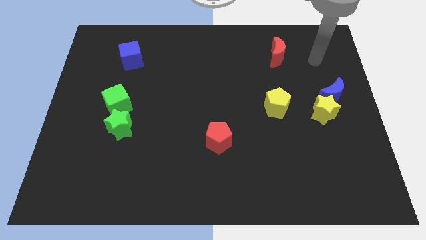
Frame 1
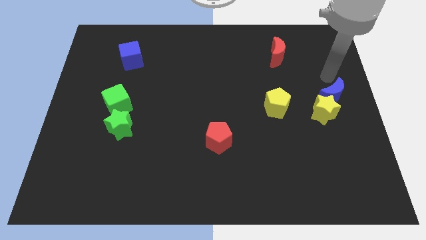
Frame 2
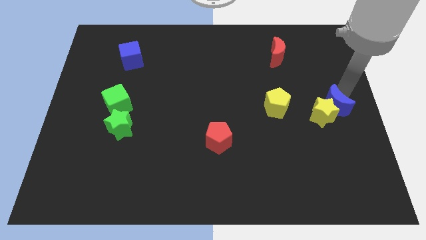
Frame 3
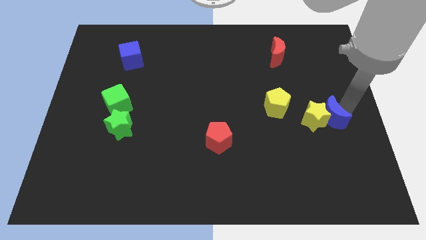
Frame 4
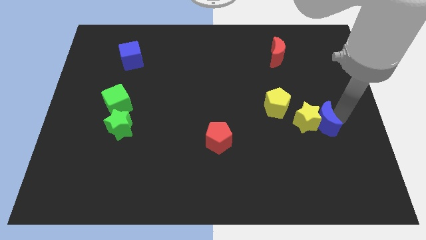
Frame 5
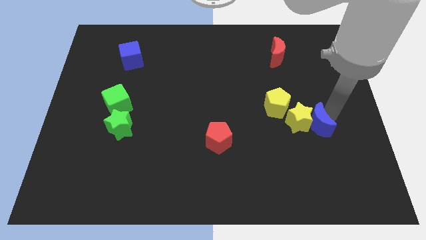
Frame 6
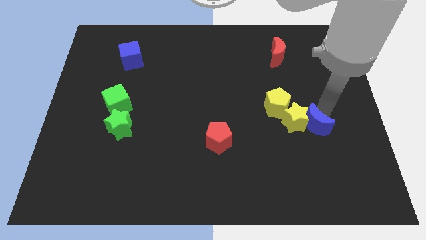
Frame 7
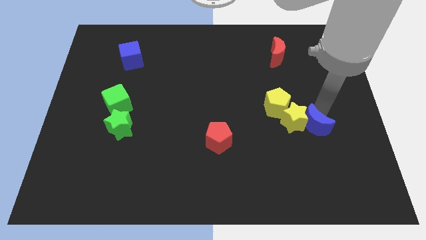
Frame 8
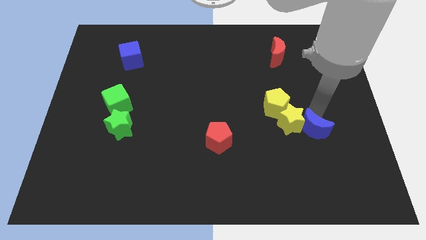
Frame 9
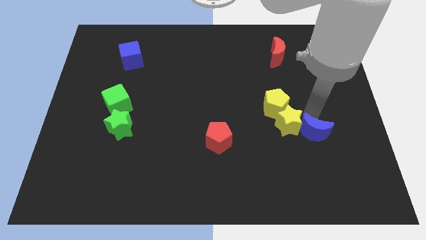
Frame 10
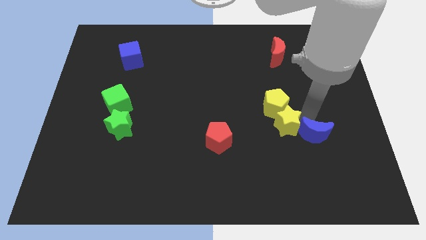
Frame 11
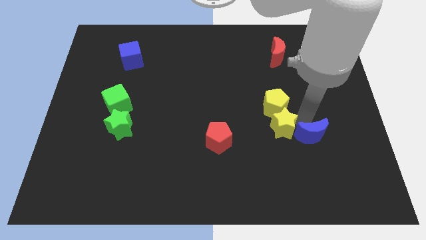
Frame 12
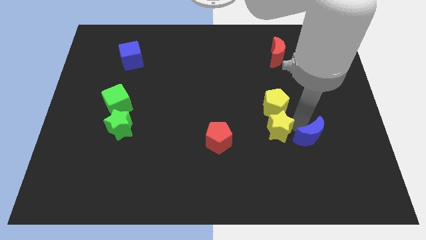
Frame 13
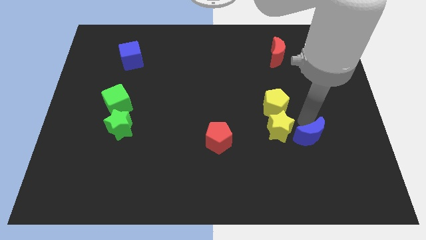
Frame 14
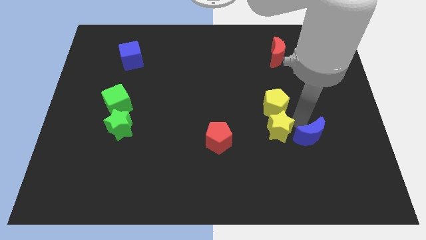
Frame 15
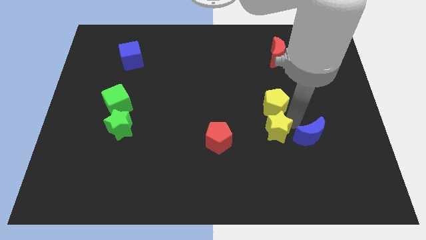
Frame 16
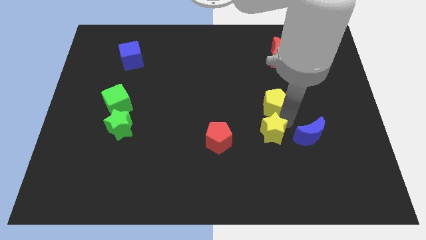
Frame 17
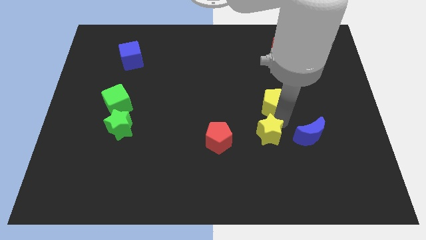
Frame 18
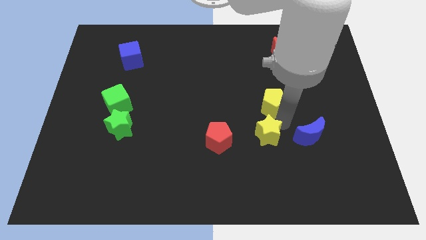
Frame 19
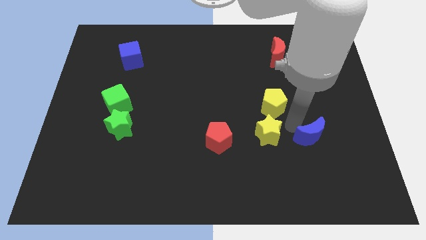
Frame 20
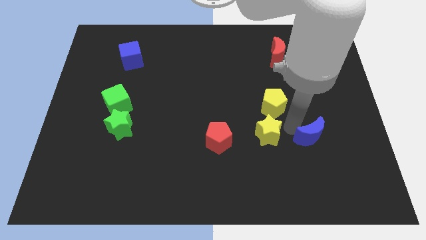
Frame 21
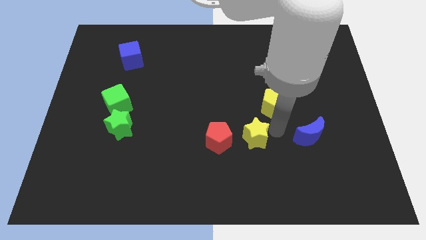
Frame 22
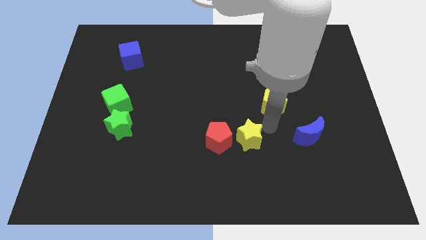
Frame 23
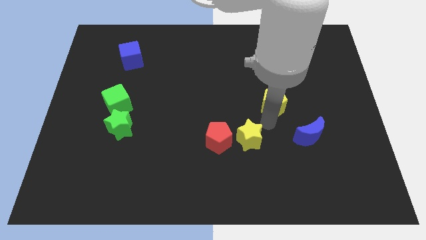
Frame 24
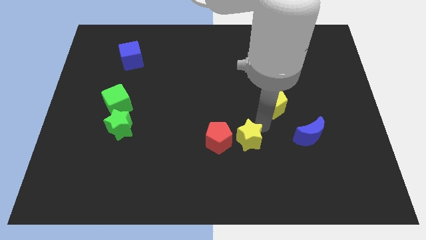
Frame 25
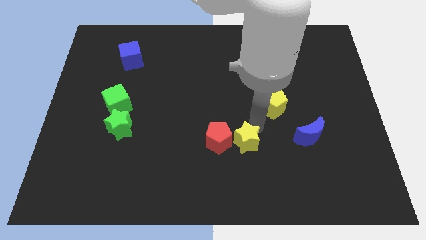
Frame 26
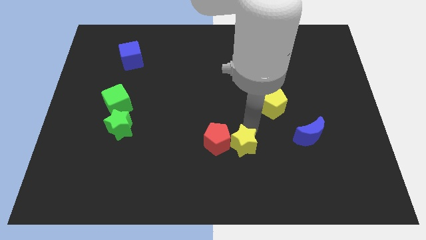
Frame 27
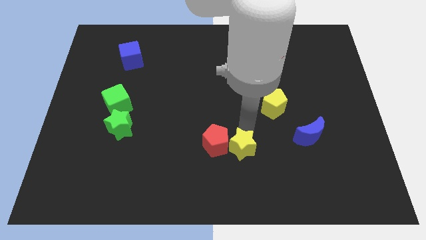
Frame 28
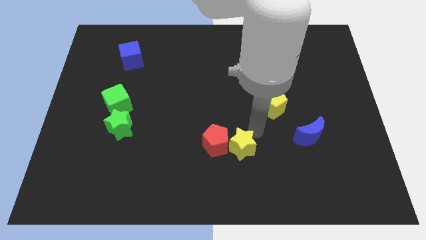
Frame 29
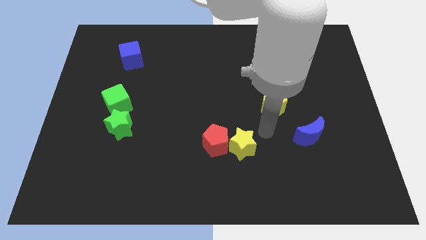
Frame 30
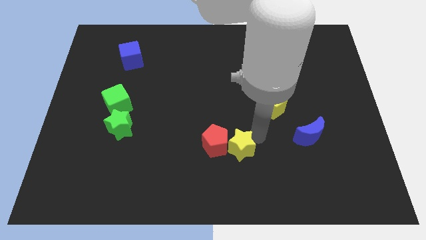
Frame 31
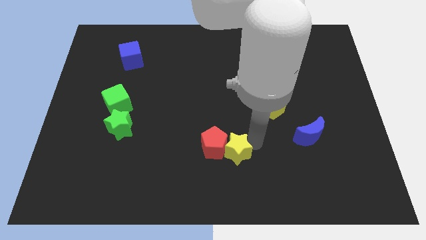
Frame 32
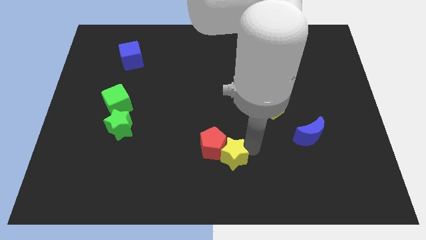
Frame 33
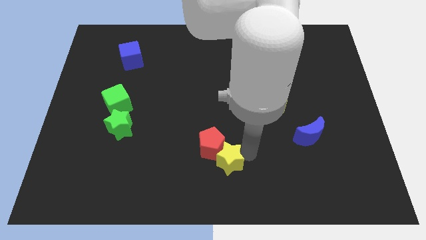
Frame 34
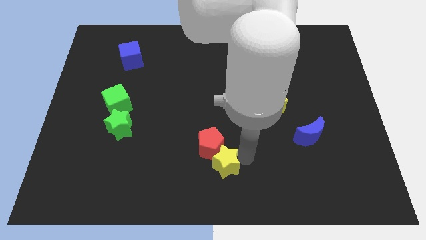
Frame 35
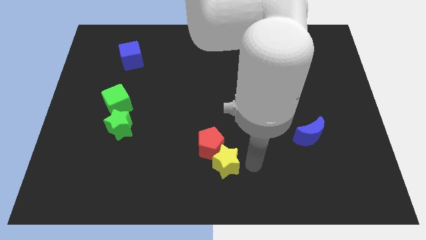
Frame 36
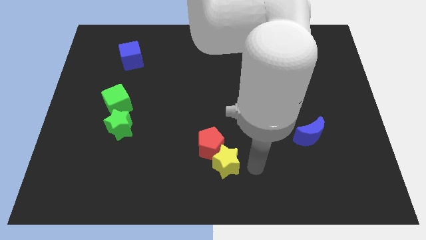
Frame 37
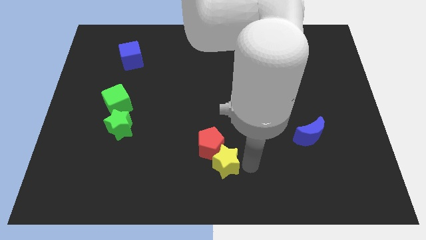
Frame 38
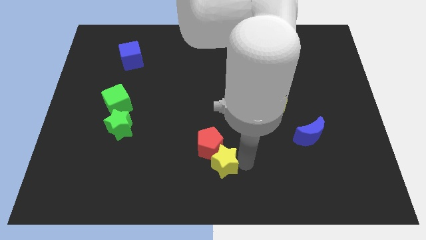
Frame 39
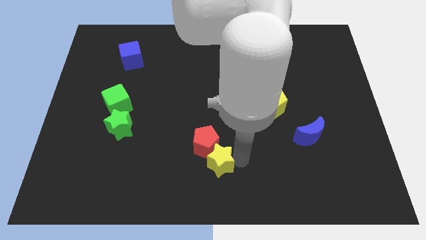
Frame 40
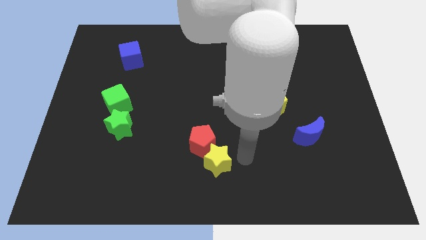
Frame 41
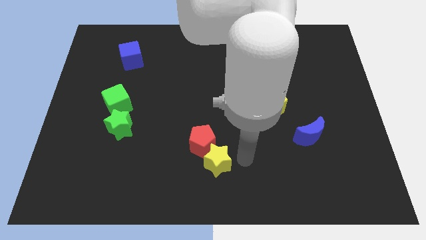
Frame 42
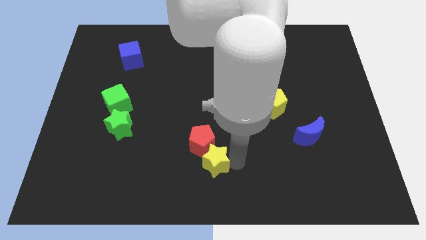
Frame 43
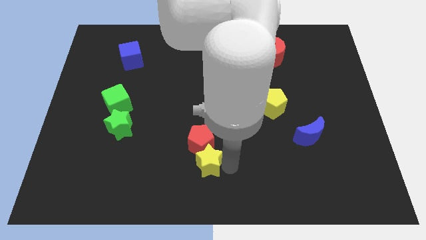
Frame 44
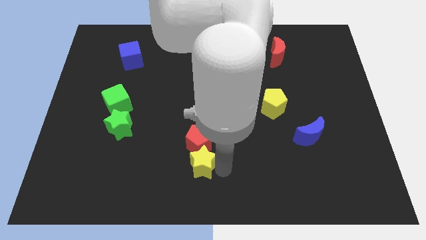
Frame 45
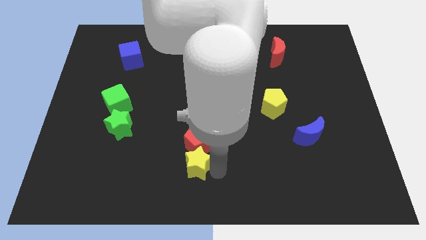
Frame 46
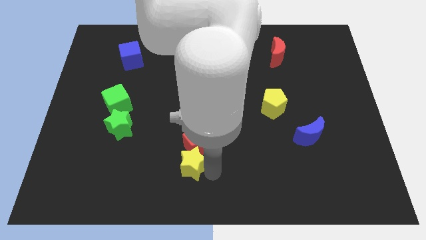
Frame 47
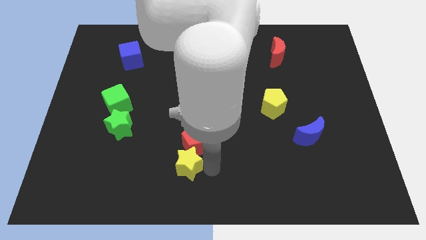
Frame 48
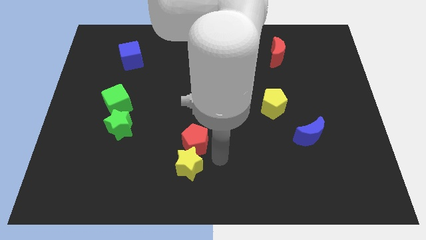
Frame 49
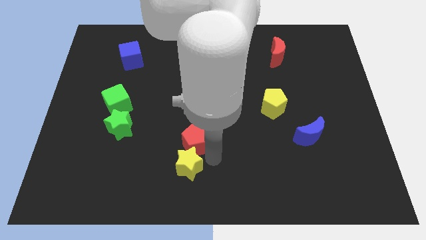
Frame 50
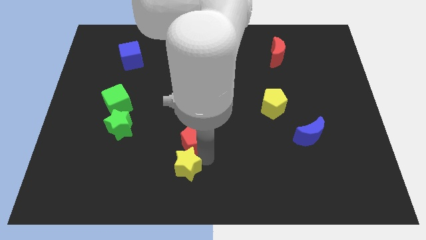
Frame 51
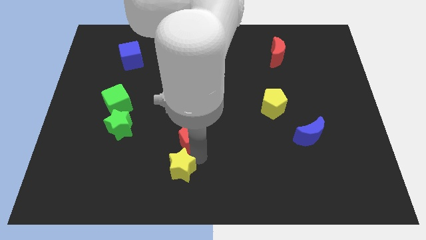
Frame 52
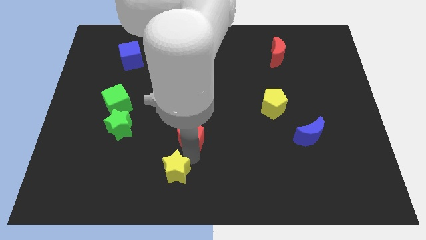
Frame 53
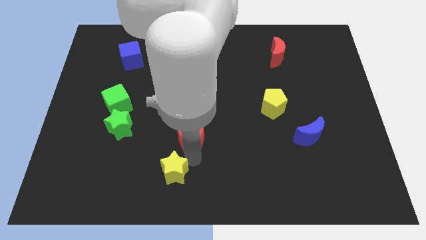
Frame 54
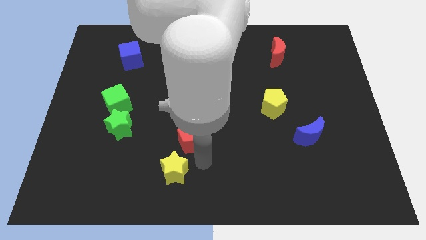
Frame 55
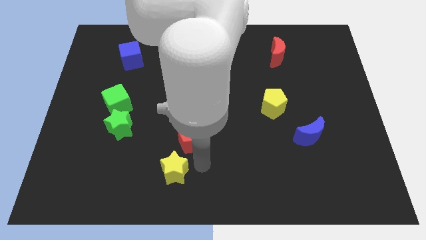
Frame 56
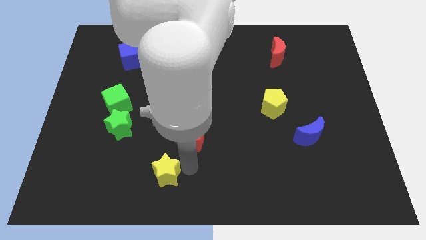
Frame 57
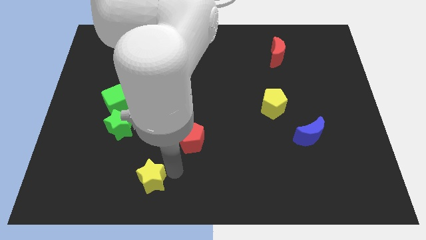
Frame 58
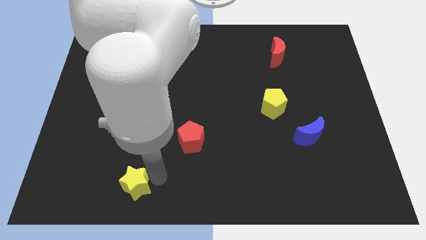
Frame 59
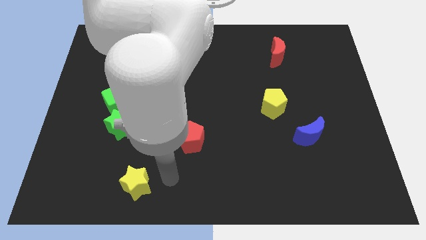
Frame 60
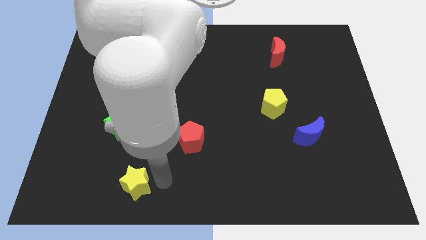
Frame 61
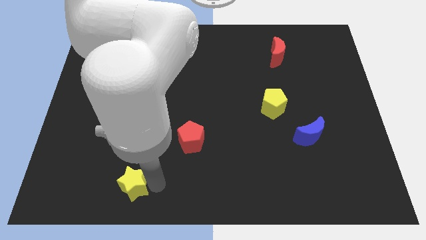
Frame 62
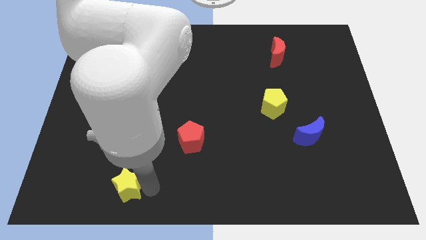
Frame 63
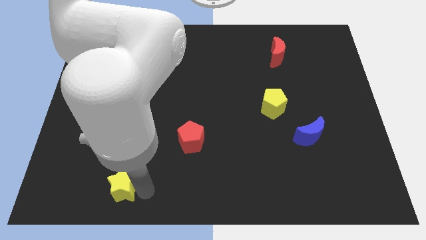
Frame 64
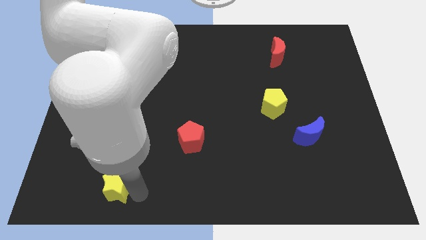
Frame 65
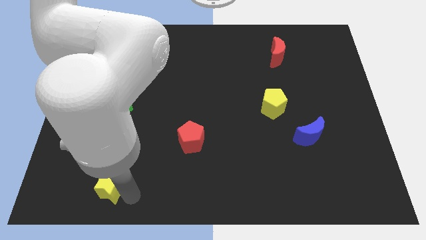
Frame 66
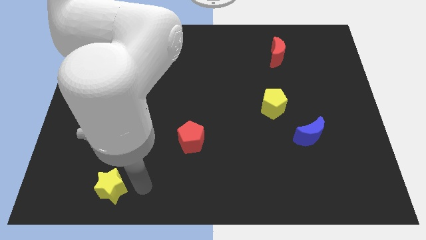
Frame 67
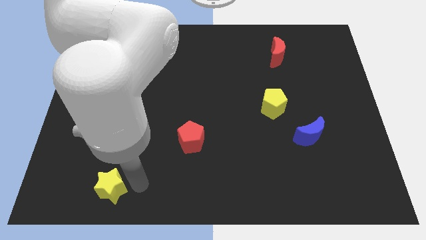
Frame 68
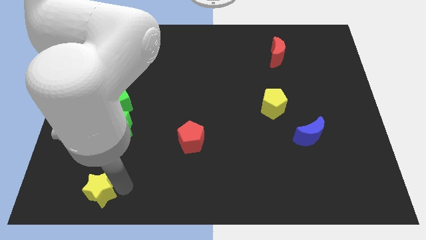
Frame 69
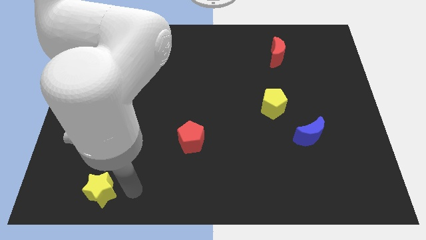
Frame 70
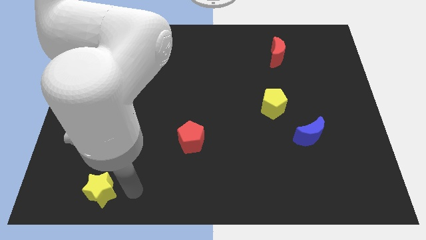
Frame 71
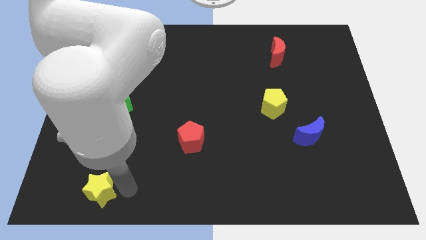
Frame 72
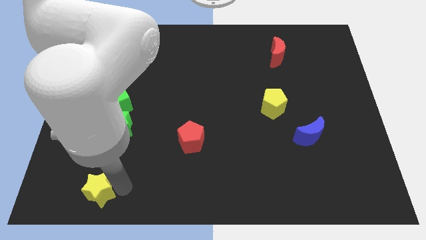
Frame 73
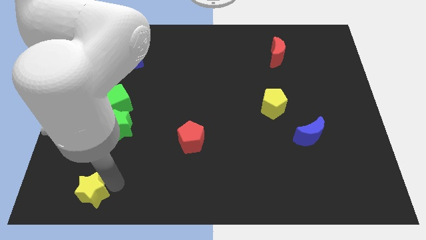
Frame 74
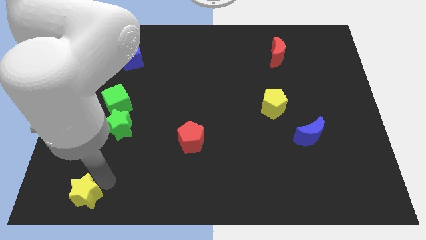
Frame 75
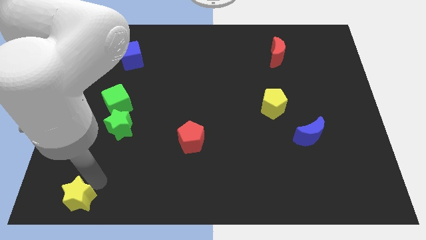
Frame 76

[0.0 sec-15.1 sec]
push the yellow star to the bottom left corner
